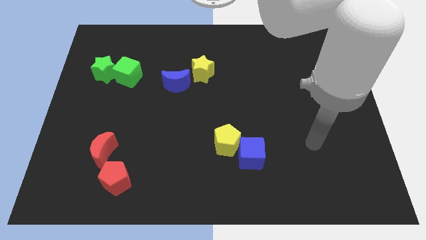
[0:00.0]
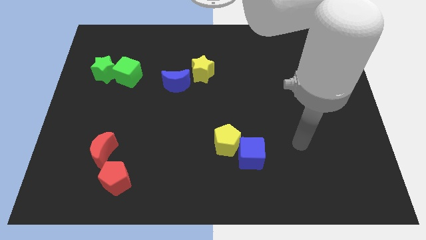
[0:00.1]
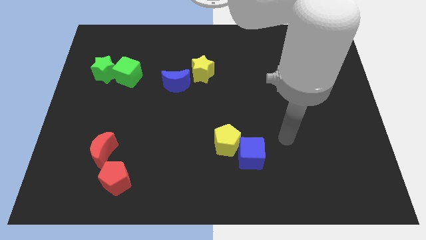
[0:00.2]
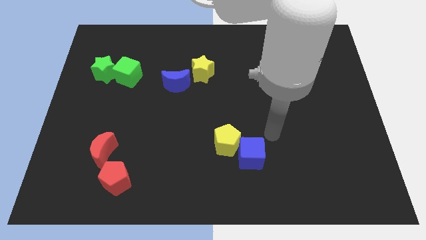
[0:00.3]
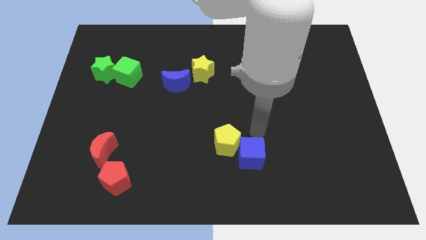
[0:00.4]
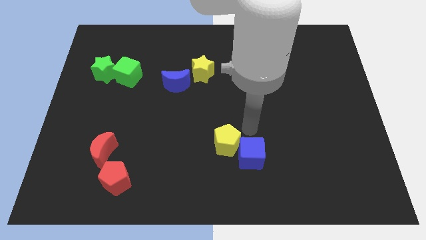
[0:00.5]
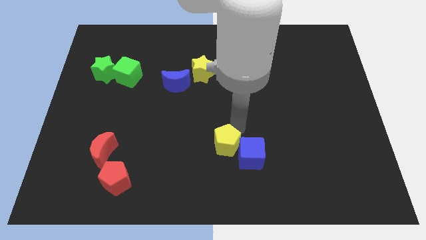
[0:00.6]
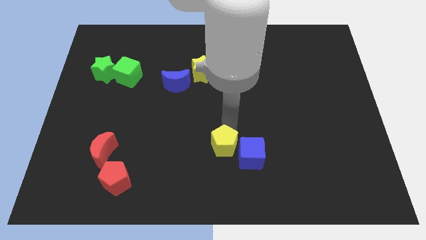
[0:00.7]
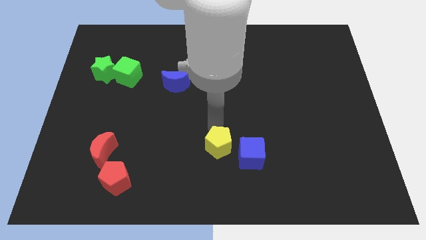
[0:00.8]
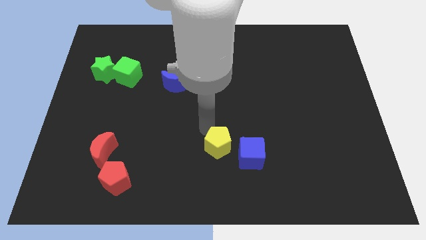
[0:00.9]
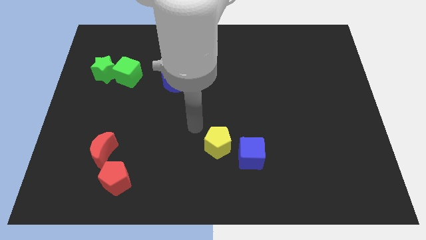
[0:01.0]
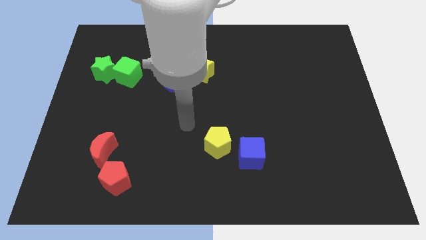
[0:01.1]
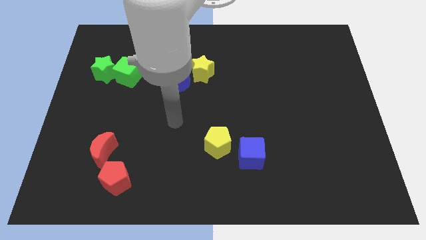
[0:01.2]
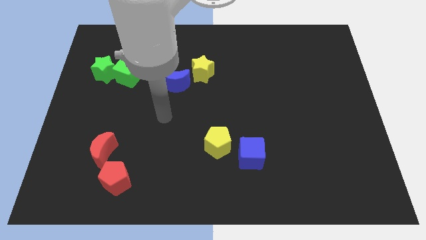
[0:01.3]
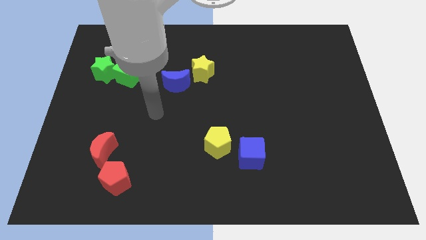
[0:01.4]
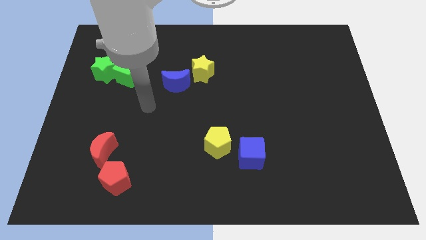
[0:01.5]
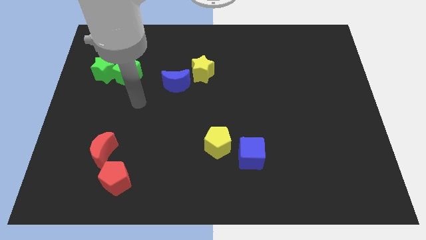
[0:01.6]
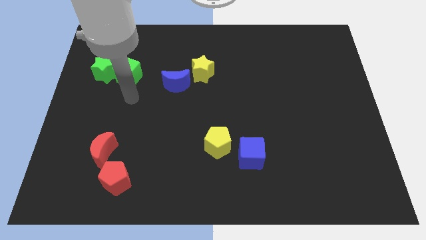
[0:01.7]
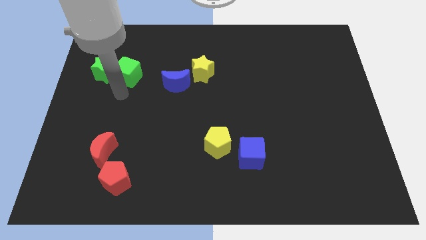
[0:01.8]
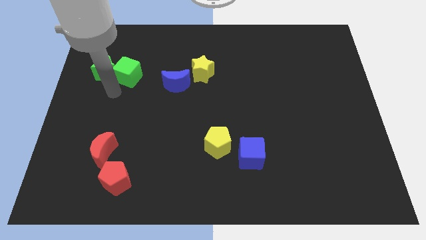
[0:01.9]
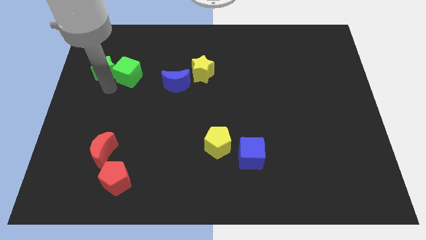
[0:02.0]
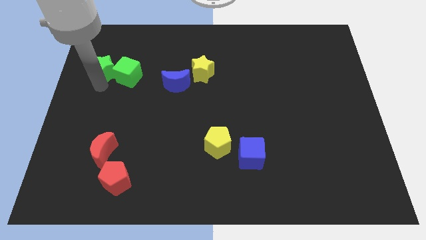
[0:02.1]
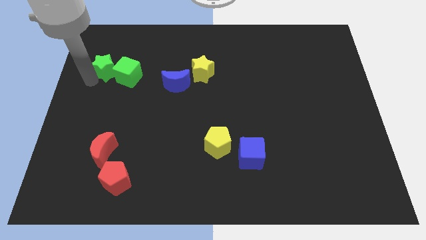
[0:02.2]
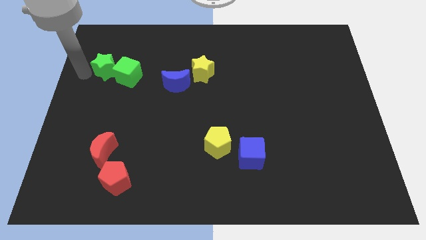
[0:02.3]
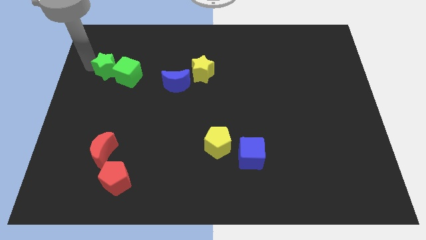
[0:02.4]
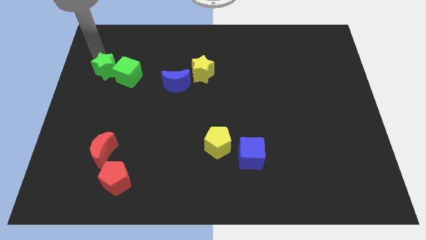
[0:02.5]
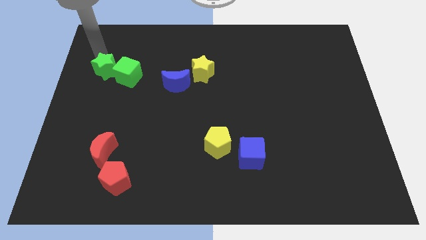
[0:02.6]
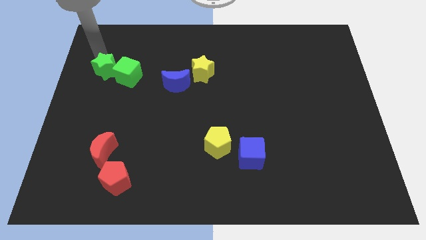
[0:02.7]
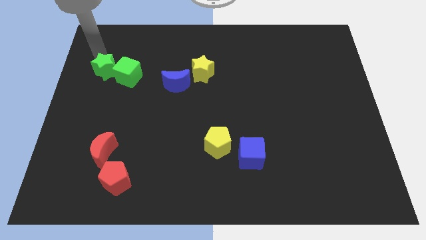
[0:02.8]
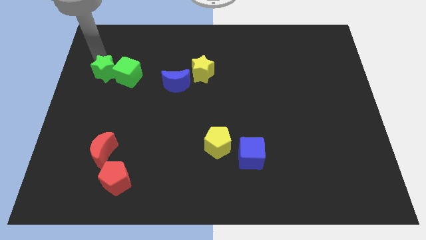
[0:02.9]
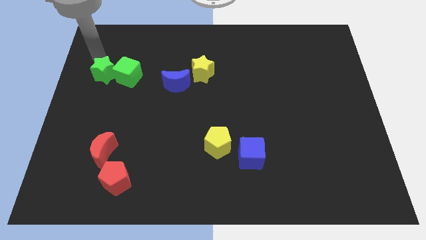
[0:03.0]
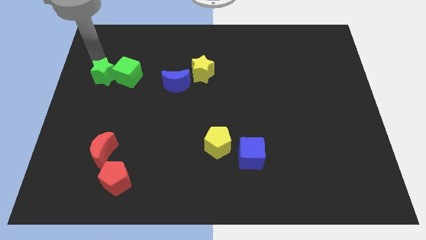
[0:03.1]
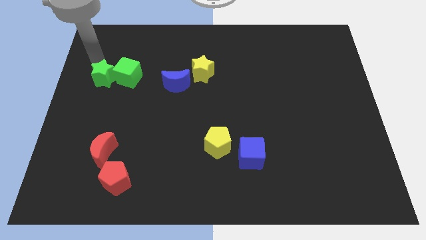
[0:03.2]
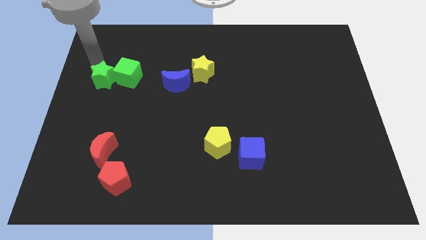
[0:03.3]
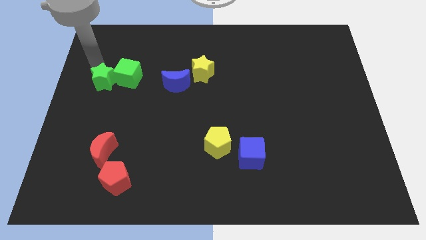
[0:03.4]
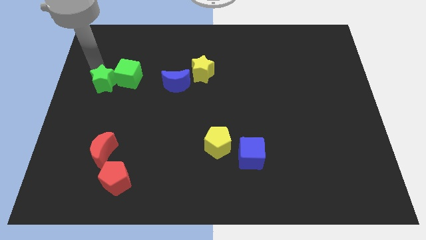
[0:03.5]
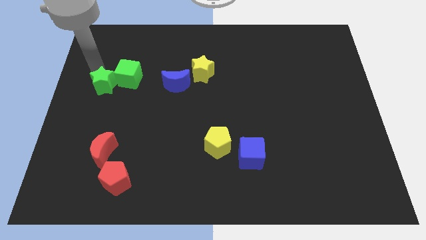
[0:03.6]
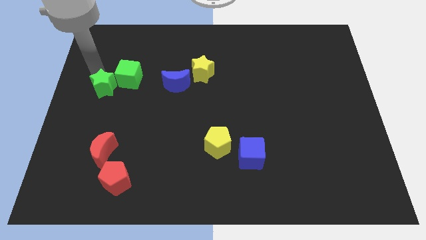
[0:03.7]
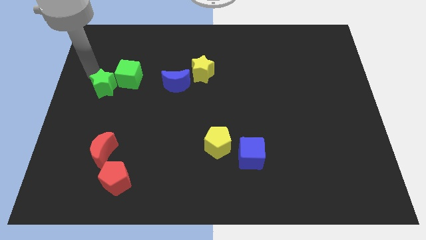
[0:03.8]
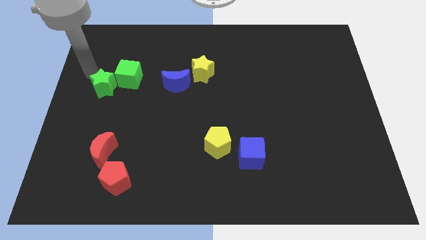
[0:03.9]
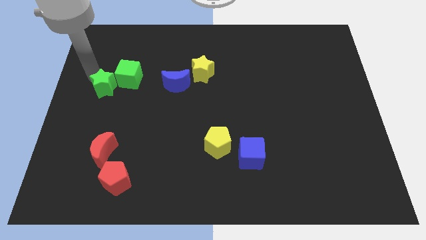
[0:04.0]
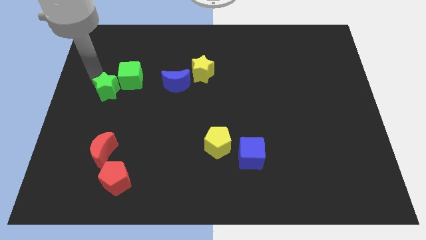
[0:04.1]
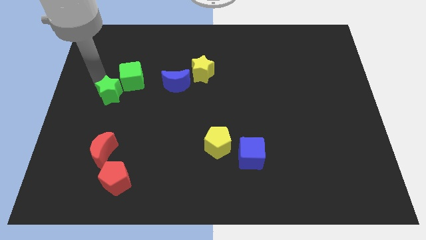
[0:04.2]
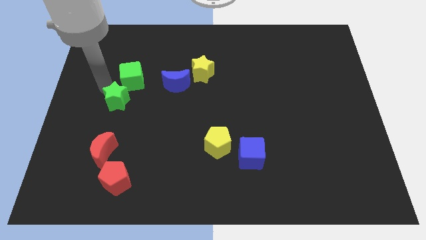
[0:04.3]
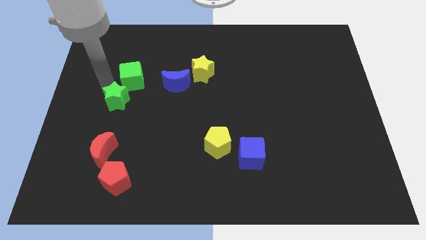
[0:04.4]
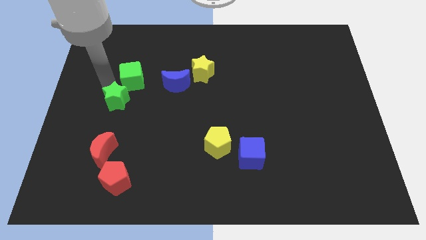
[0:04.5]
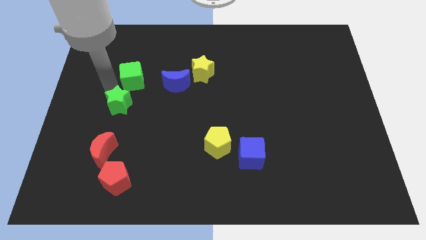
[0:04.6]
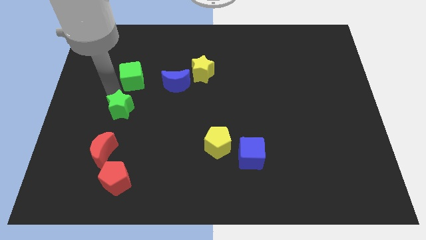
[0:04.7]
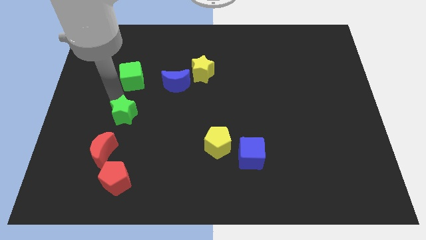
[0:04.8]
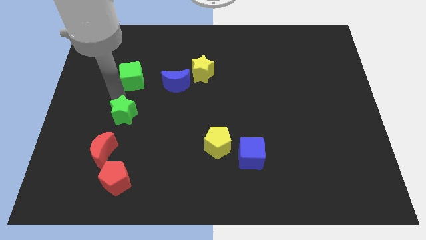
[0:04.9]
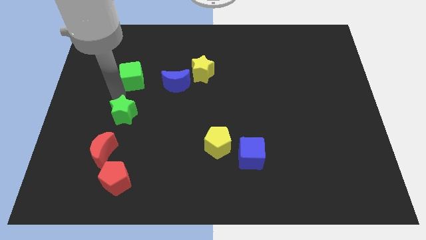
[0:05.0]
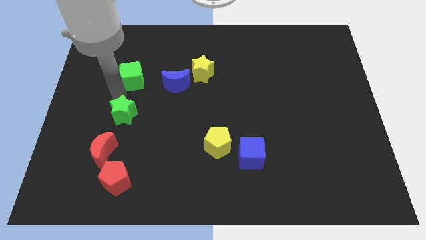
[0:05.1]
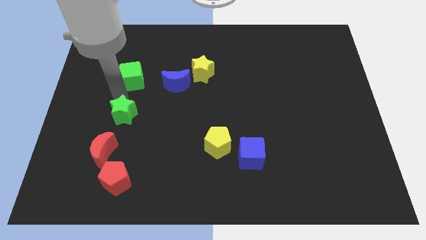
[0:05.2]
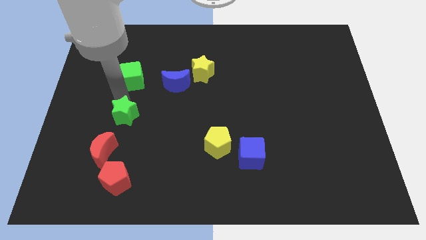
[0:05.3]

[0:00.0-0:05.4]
put the green star to the top right side of the red moon

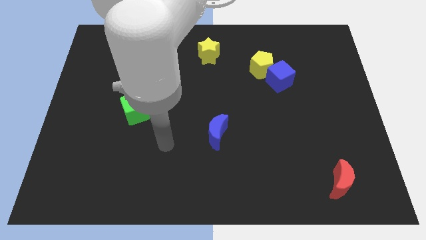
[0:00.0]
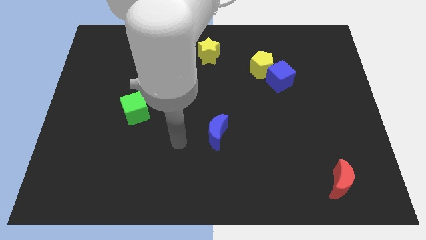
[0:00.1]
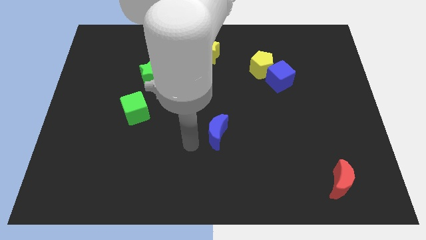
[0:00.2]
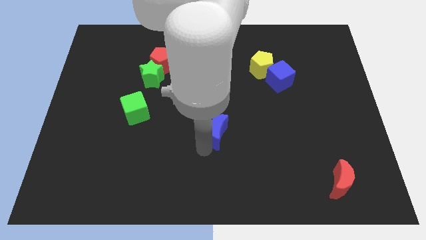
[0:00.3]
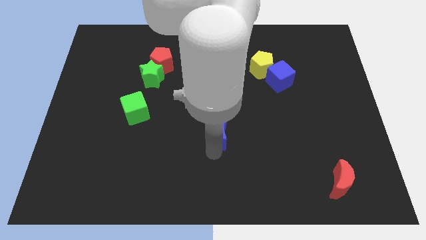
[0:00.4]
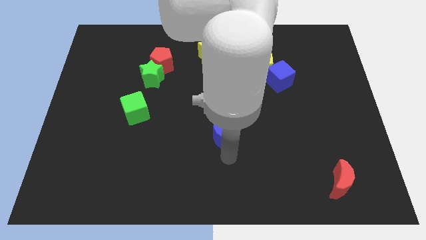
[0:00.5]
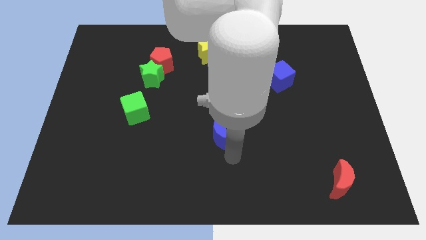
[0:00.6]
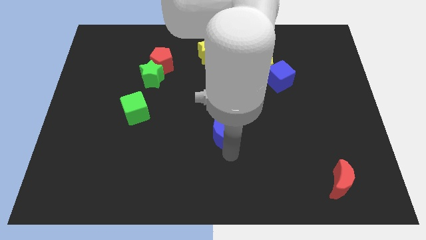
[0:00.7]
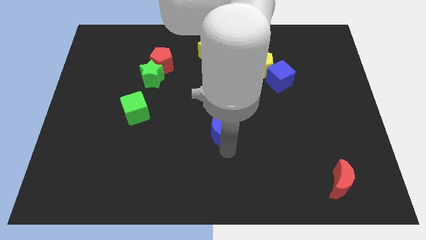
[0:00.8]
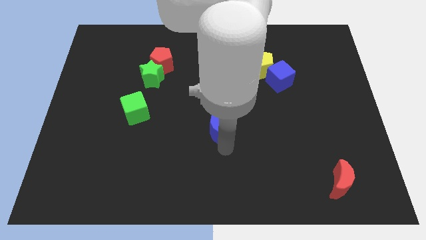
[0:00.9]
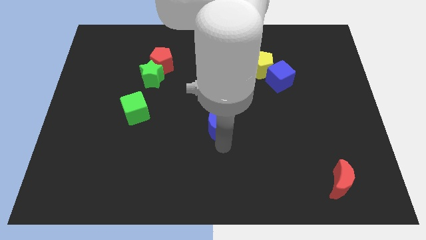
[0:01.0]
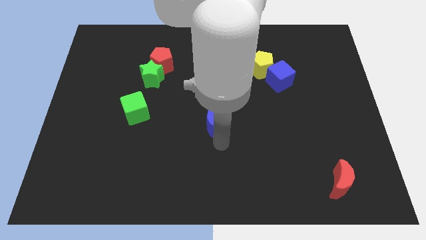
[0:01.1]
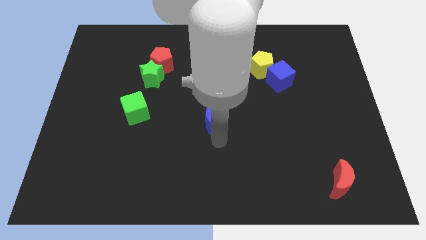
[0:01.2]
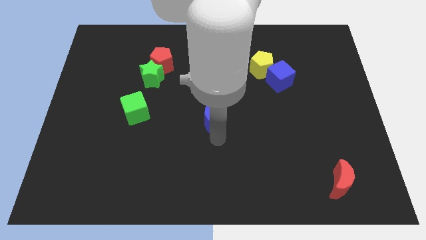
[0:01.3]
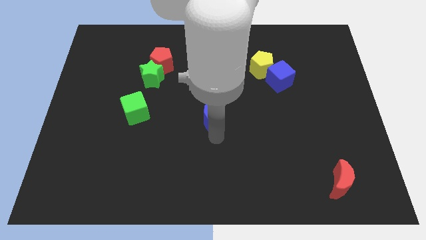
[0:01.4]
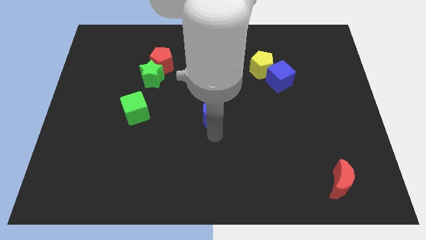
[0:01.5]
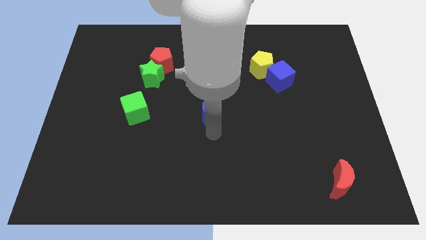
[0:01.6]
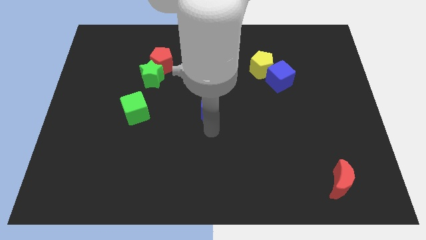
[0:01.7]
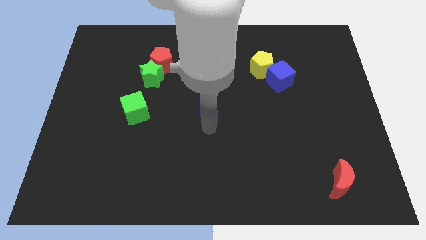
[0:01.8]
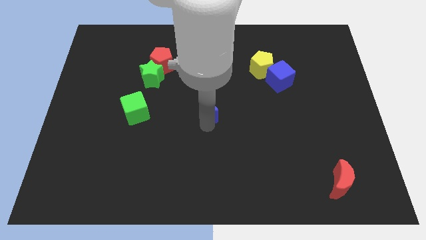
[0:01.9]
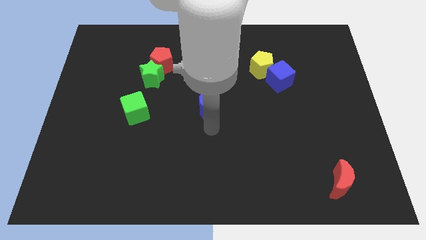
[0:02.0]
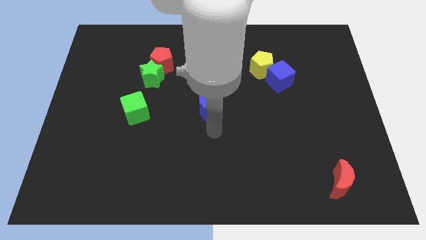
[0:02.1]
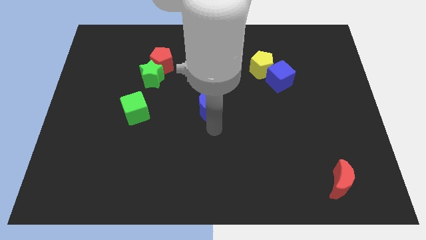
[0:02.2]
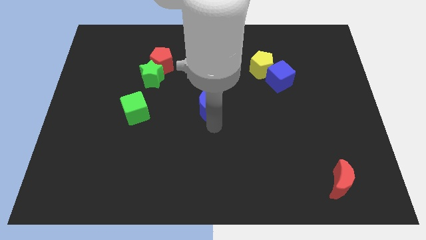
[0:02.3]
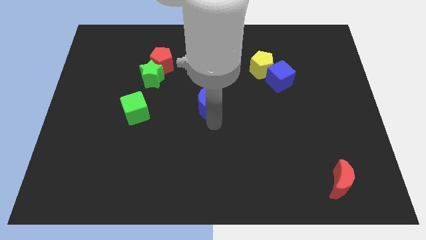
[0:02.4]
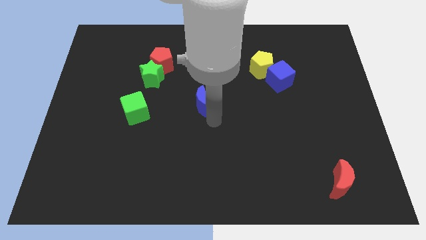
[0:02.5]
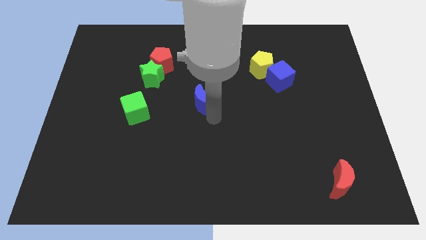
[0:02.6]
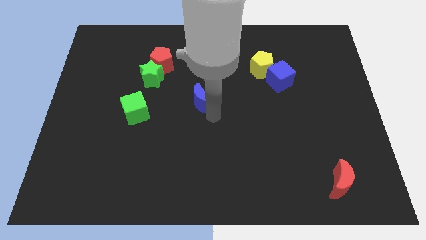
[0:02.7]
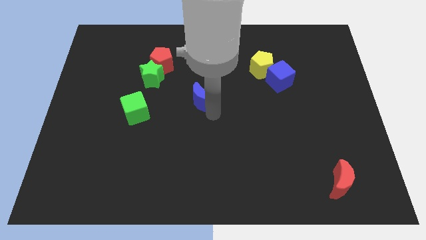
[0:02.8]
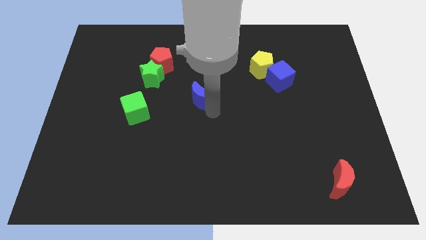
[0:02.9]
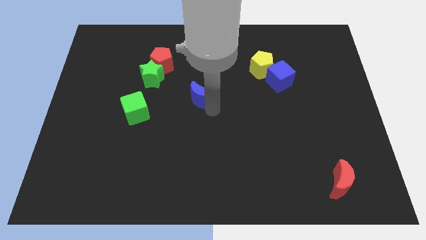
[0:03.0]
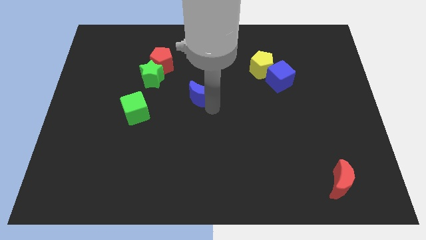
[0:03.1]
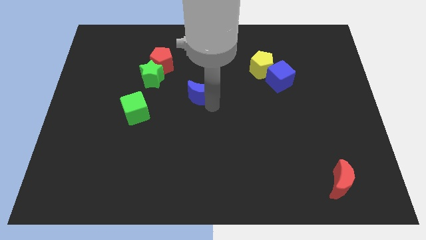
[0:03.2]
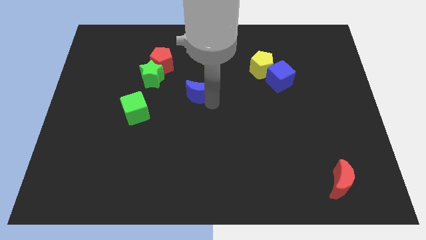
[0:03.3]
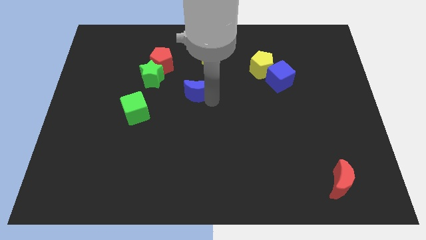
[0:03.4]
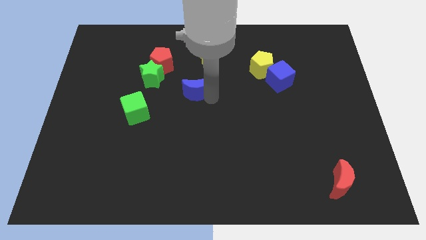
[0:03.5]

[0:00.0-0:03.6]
push the blue moon to the right side of the green star
